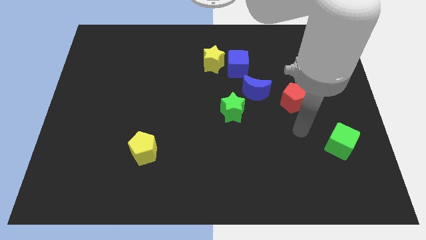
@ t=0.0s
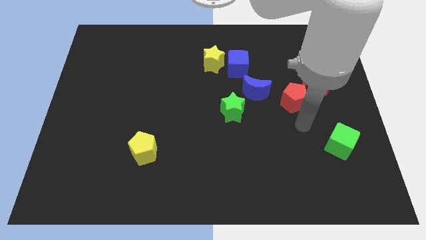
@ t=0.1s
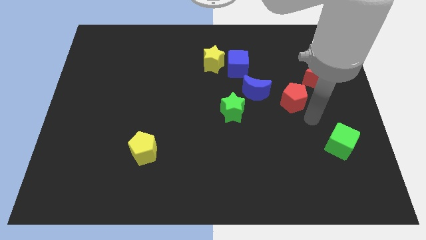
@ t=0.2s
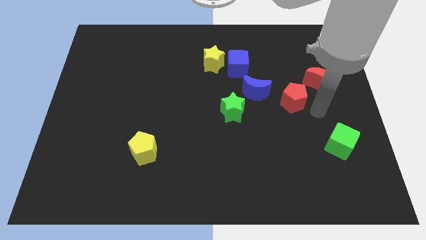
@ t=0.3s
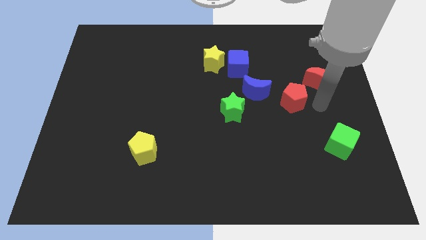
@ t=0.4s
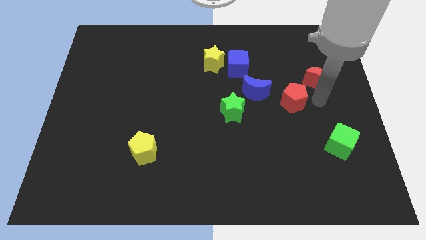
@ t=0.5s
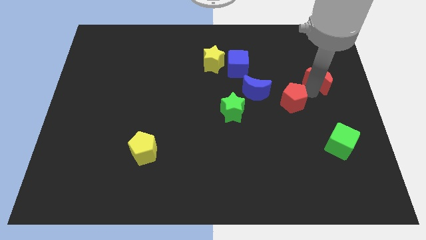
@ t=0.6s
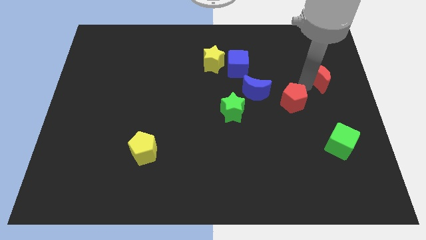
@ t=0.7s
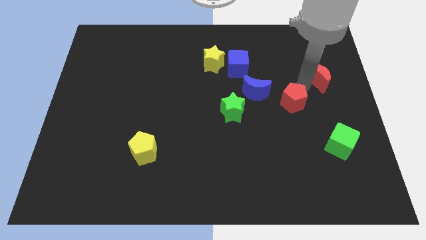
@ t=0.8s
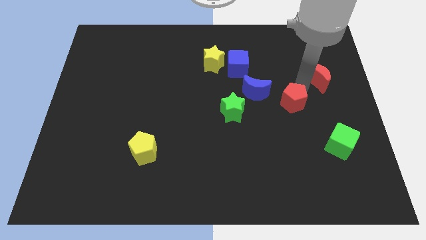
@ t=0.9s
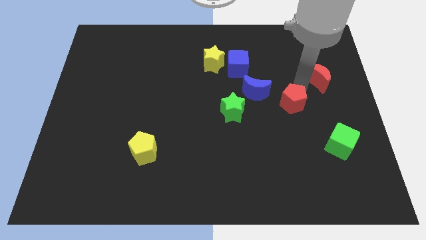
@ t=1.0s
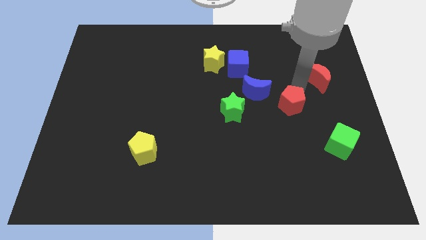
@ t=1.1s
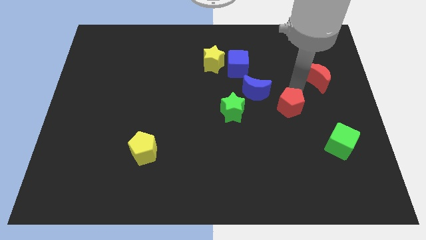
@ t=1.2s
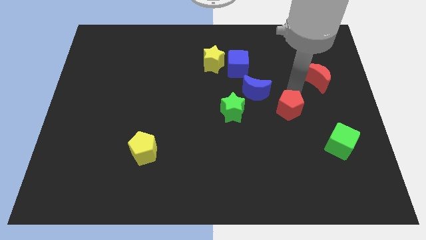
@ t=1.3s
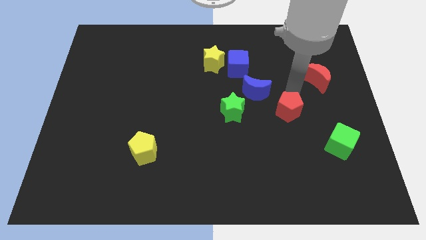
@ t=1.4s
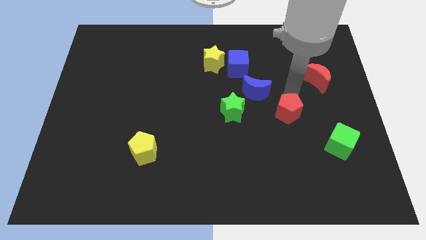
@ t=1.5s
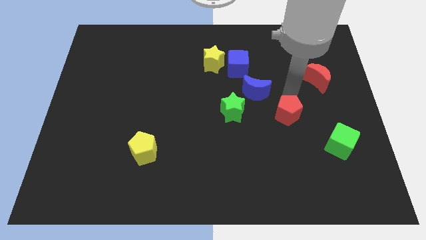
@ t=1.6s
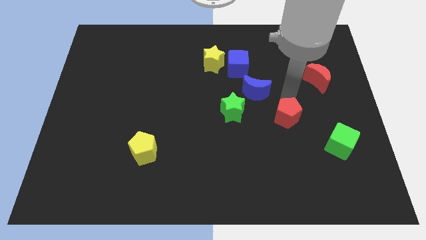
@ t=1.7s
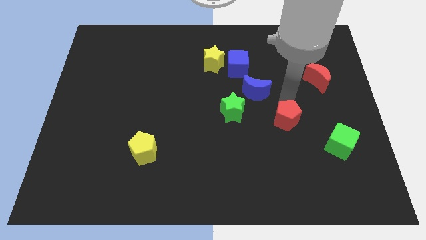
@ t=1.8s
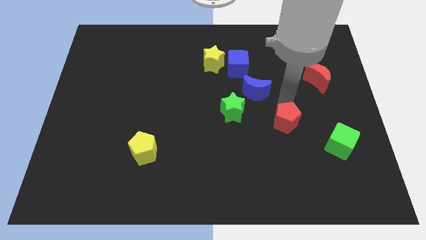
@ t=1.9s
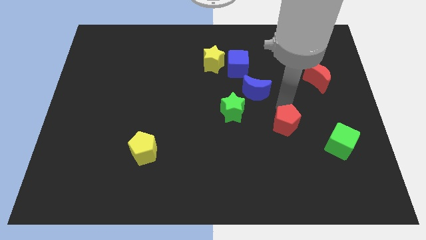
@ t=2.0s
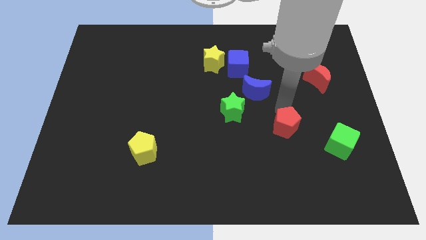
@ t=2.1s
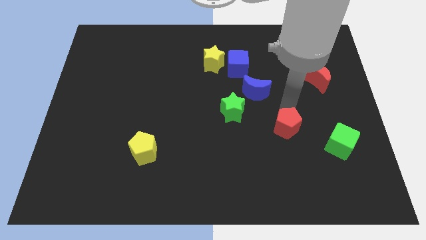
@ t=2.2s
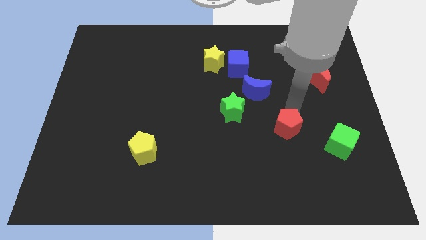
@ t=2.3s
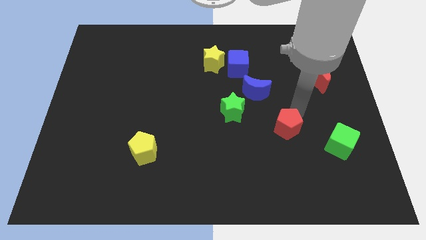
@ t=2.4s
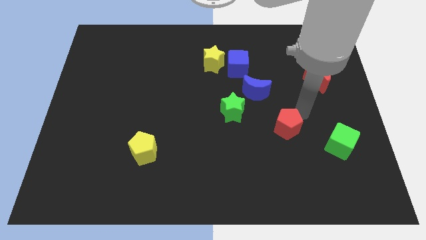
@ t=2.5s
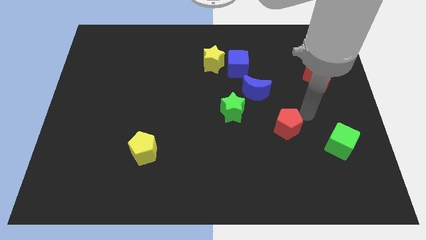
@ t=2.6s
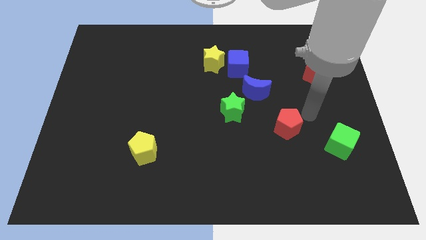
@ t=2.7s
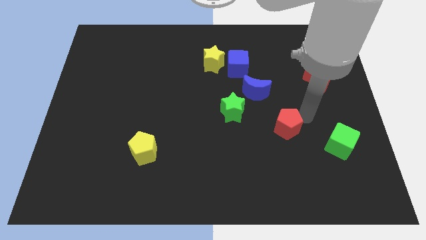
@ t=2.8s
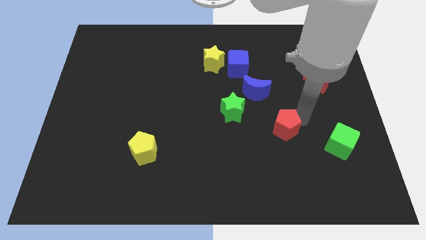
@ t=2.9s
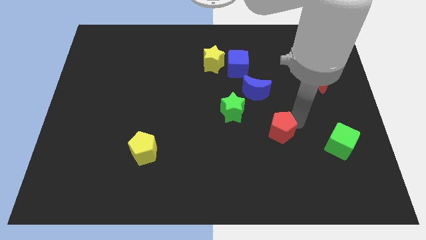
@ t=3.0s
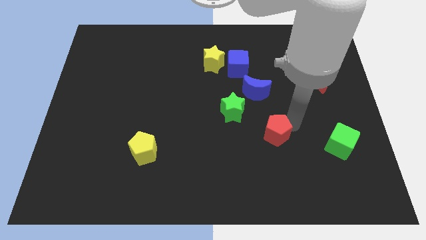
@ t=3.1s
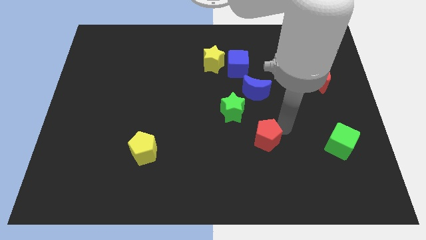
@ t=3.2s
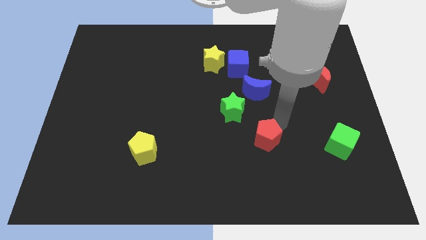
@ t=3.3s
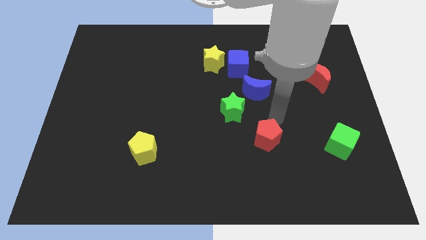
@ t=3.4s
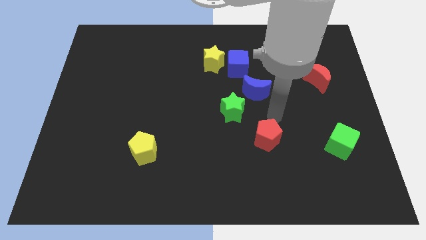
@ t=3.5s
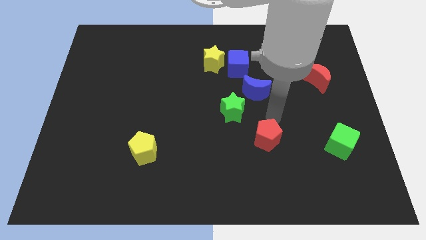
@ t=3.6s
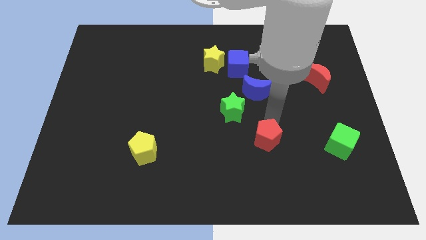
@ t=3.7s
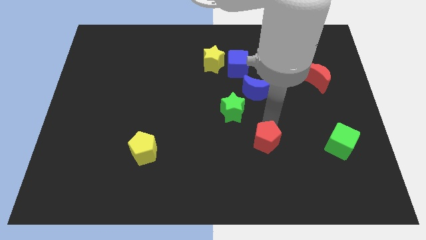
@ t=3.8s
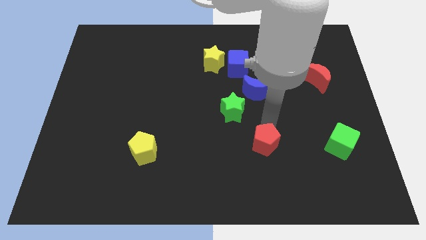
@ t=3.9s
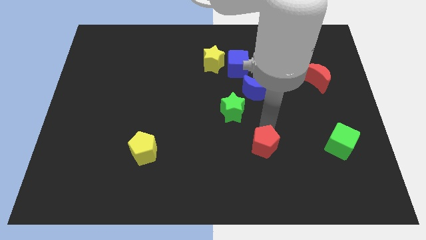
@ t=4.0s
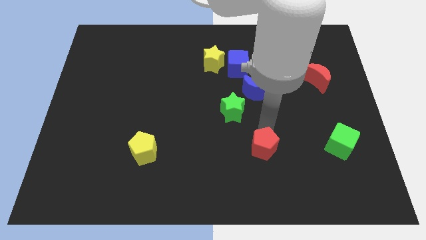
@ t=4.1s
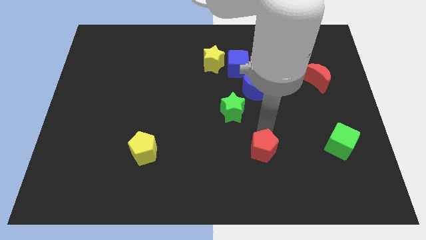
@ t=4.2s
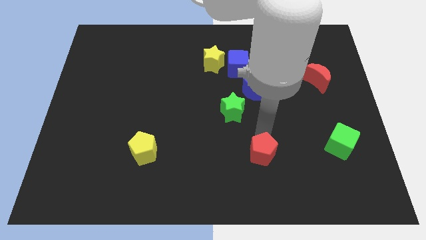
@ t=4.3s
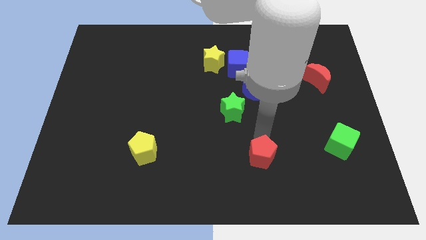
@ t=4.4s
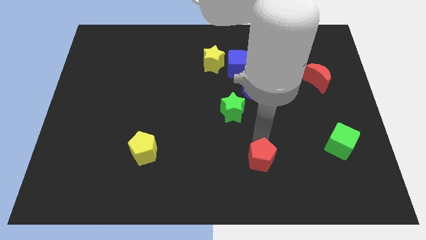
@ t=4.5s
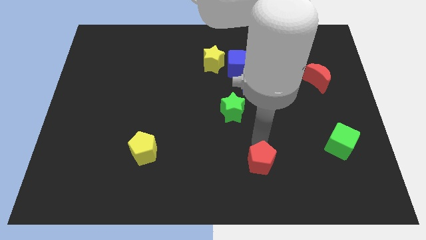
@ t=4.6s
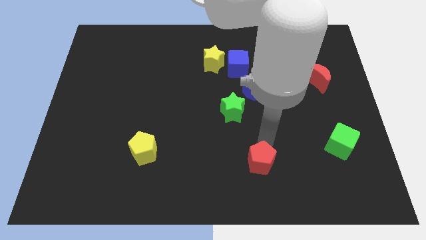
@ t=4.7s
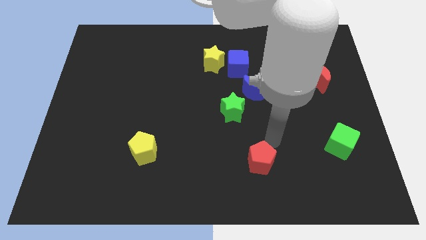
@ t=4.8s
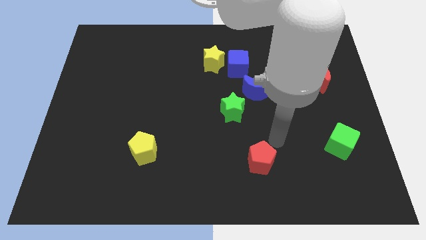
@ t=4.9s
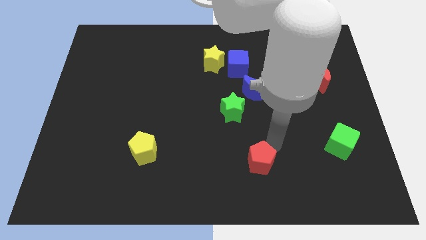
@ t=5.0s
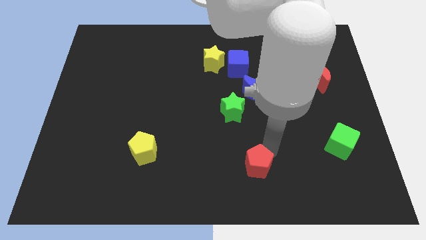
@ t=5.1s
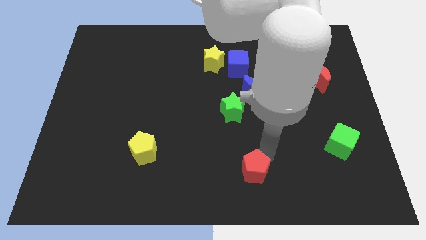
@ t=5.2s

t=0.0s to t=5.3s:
slide the red pentagon to the bottom side
